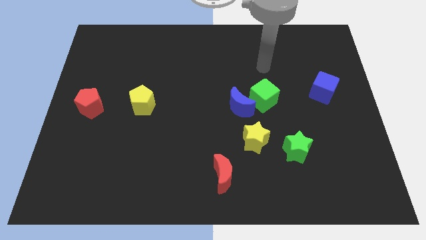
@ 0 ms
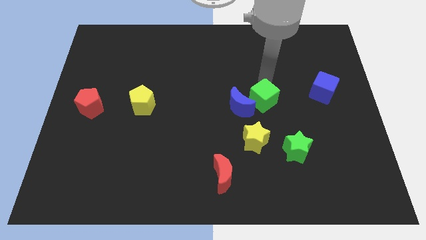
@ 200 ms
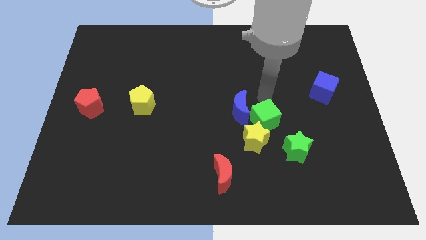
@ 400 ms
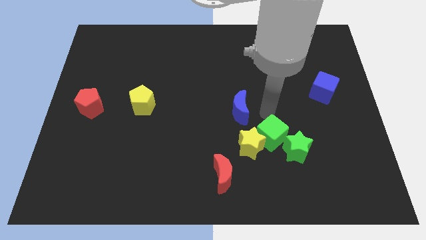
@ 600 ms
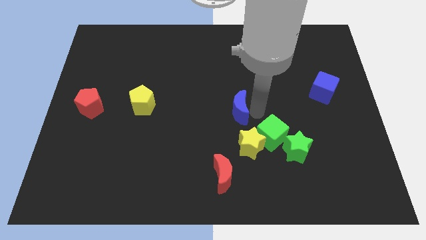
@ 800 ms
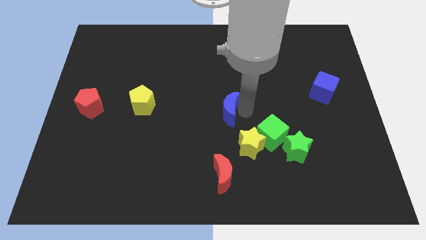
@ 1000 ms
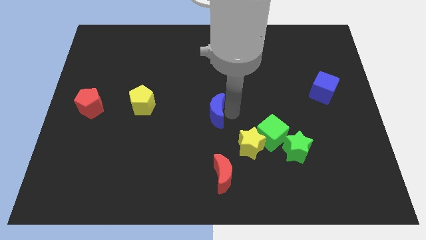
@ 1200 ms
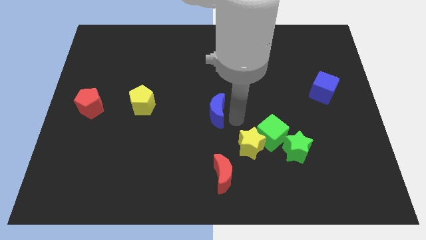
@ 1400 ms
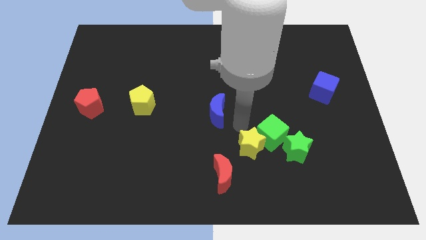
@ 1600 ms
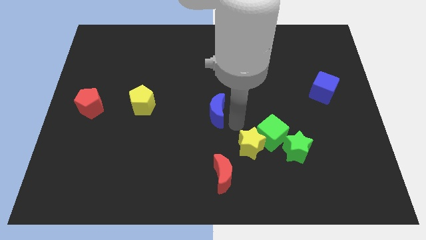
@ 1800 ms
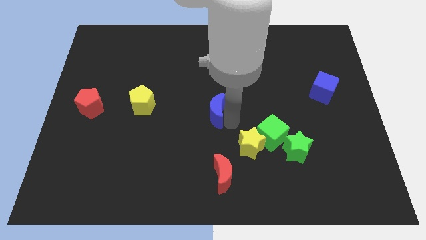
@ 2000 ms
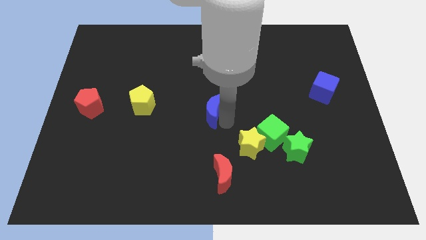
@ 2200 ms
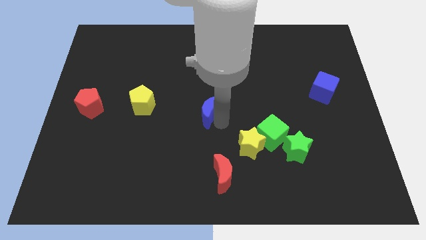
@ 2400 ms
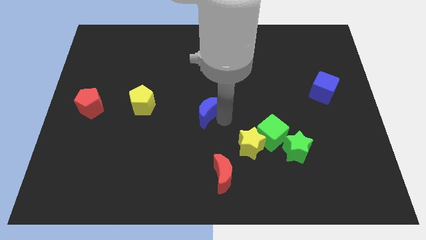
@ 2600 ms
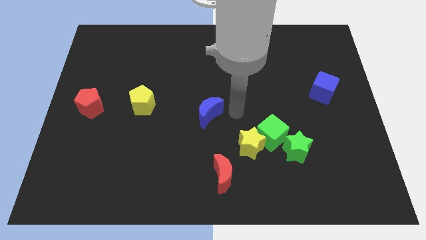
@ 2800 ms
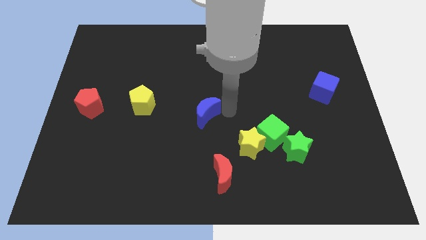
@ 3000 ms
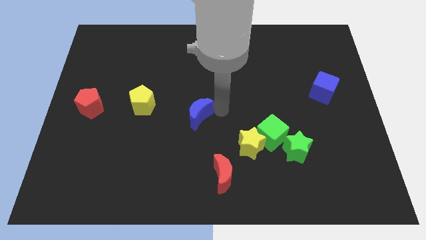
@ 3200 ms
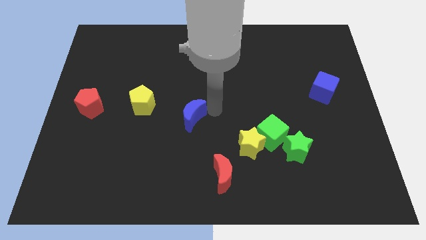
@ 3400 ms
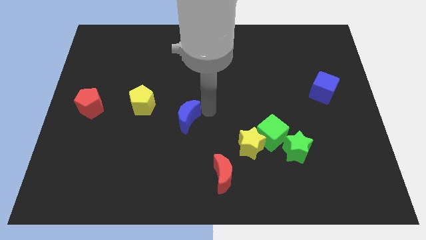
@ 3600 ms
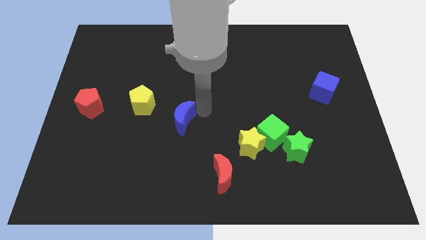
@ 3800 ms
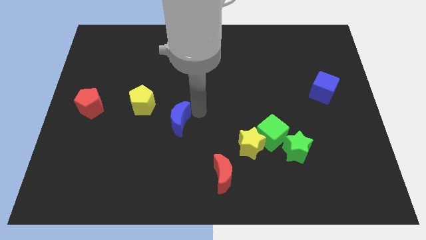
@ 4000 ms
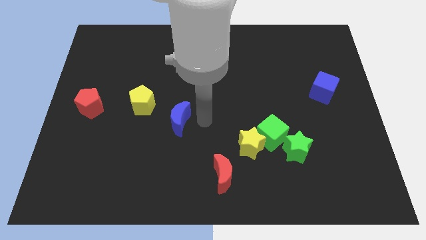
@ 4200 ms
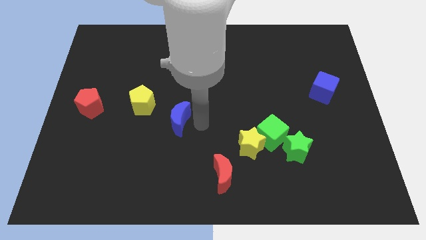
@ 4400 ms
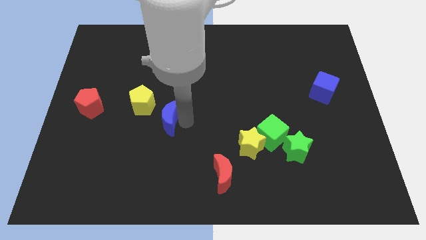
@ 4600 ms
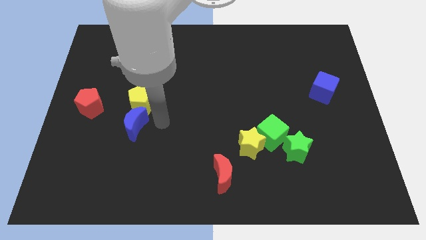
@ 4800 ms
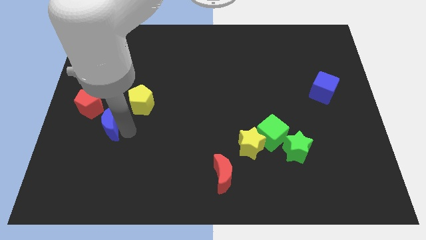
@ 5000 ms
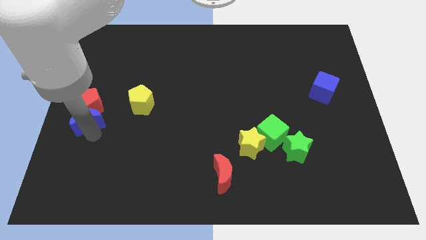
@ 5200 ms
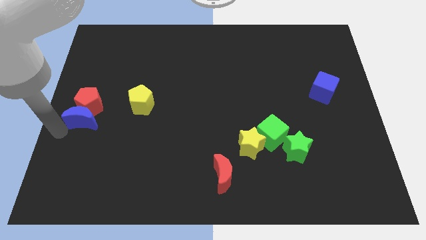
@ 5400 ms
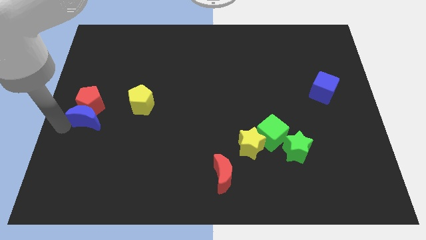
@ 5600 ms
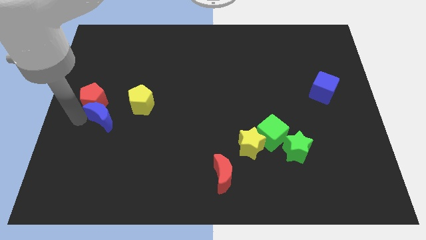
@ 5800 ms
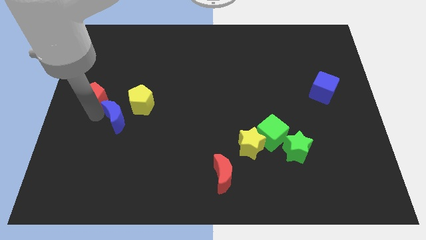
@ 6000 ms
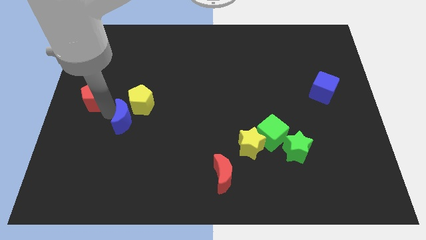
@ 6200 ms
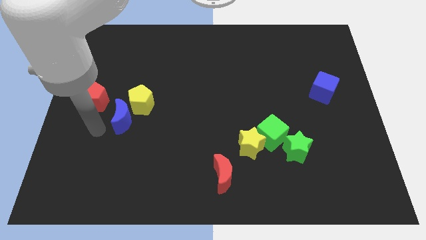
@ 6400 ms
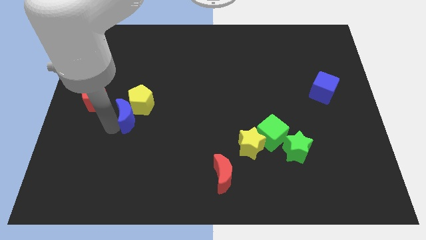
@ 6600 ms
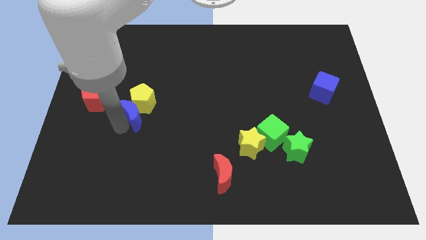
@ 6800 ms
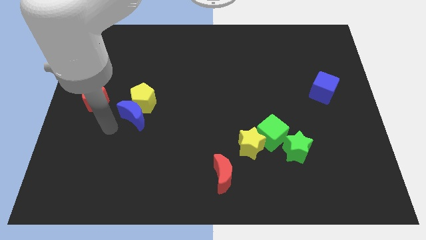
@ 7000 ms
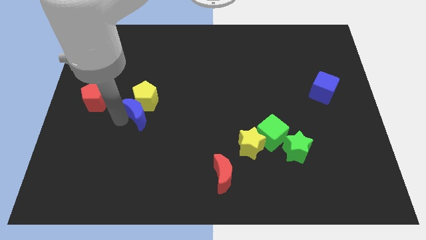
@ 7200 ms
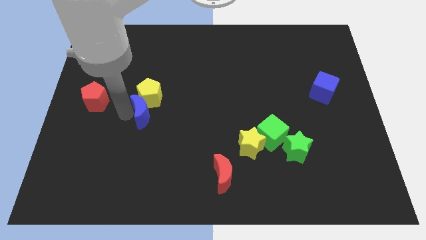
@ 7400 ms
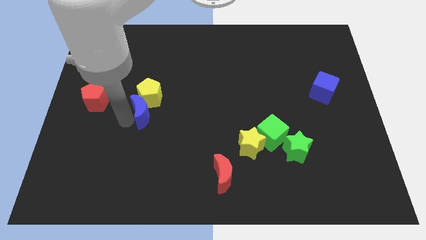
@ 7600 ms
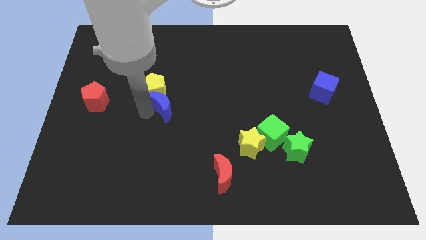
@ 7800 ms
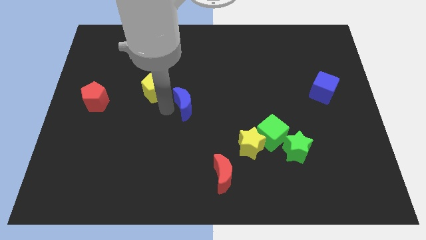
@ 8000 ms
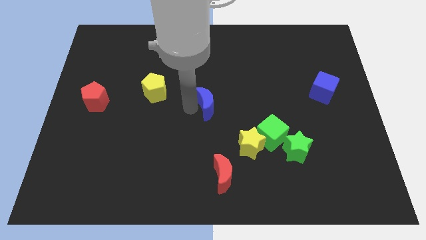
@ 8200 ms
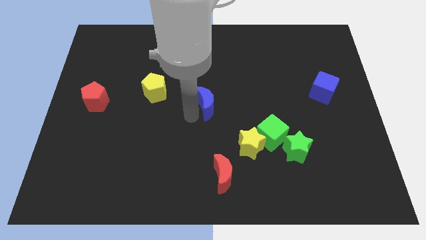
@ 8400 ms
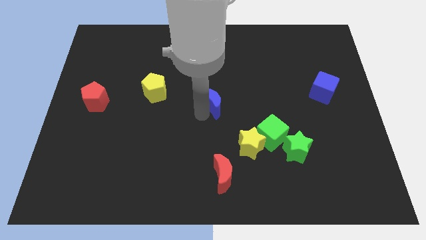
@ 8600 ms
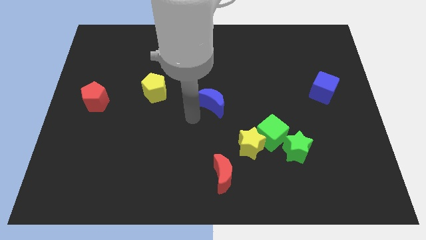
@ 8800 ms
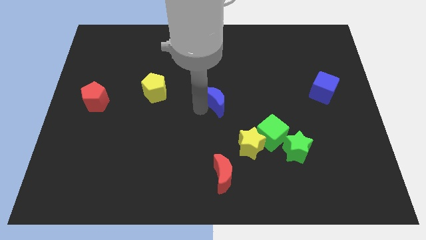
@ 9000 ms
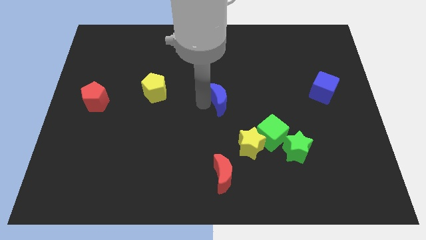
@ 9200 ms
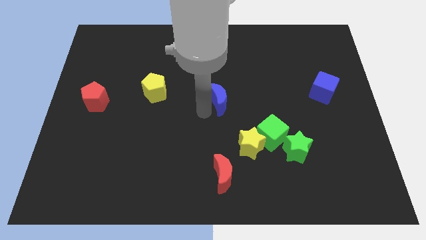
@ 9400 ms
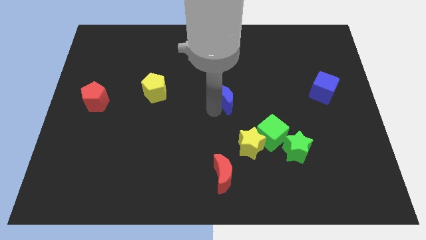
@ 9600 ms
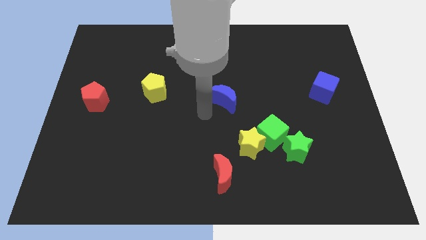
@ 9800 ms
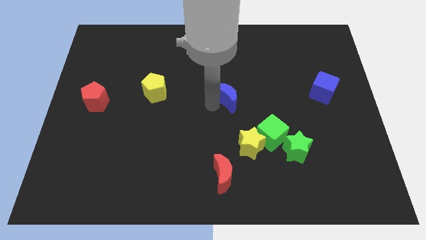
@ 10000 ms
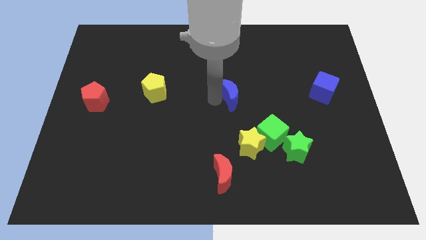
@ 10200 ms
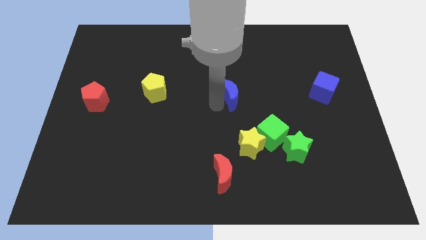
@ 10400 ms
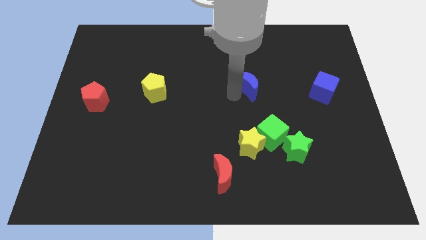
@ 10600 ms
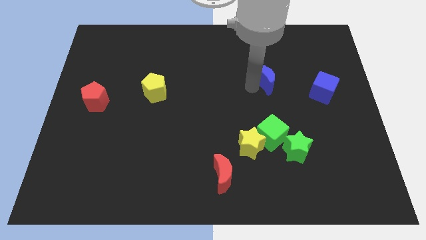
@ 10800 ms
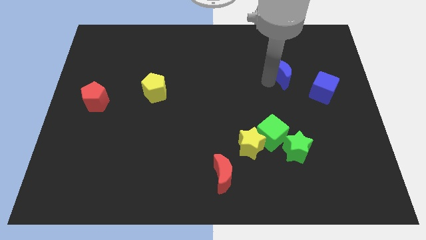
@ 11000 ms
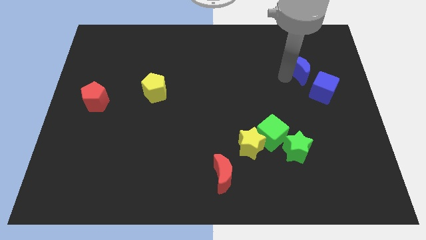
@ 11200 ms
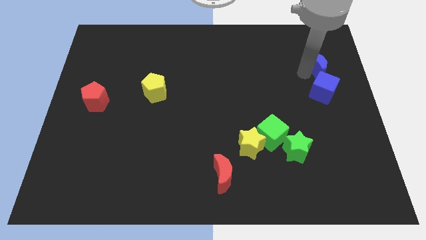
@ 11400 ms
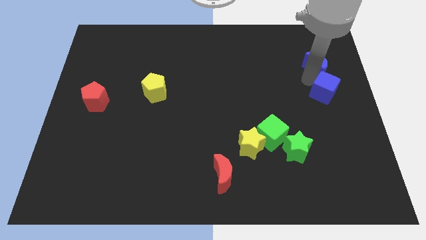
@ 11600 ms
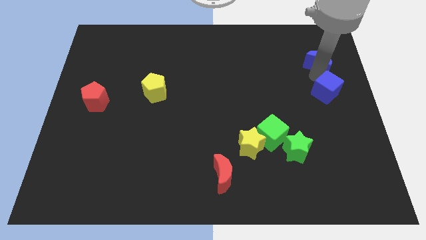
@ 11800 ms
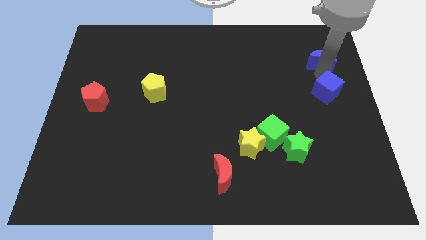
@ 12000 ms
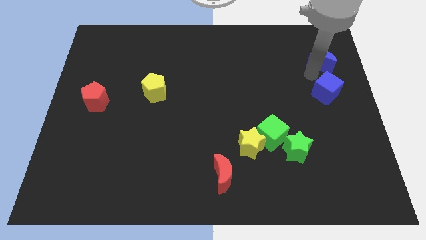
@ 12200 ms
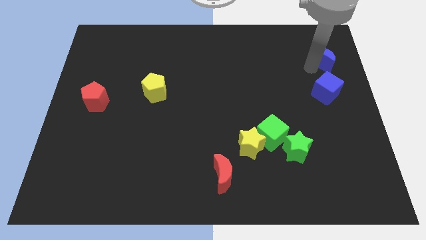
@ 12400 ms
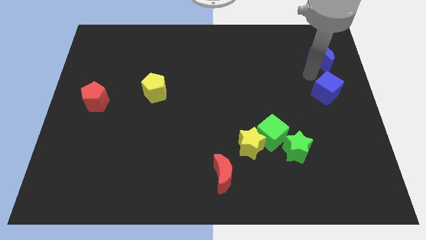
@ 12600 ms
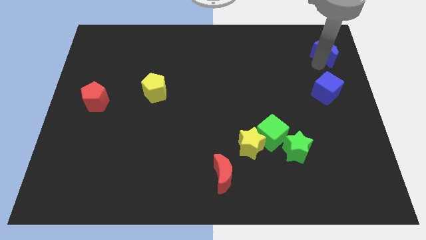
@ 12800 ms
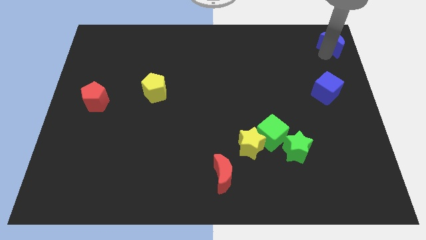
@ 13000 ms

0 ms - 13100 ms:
move the blue moon to the top right corner

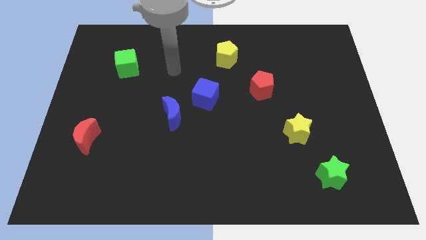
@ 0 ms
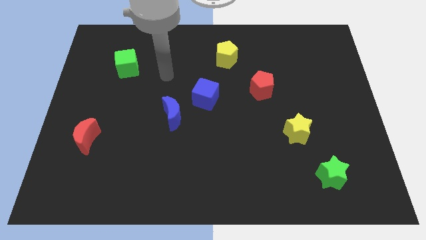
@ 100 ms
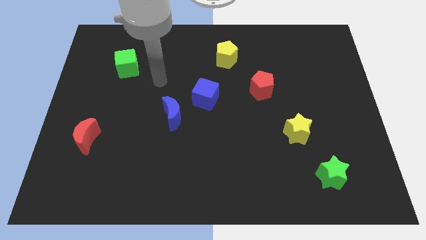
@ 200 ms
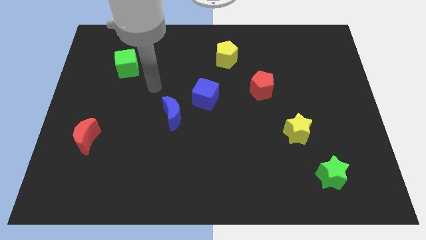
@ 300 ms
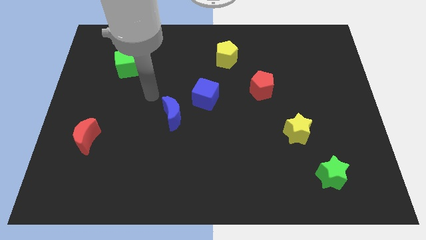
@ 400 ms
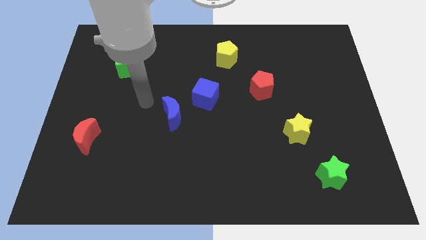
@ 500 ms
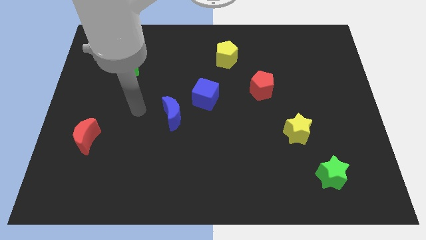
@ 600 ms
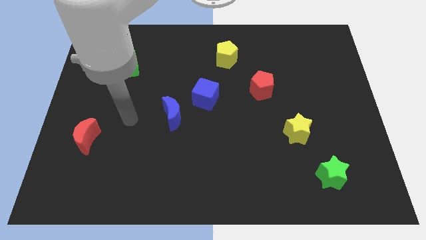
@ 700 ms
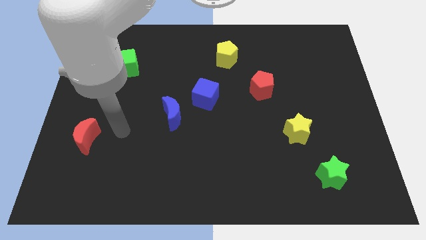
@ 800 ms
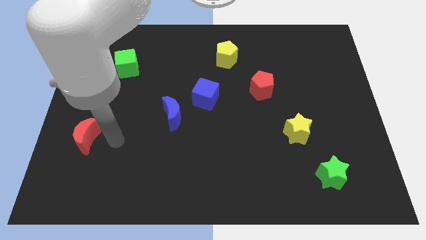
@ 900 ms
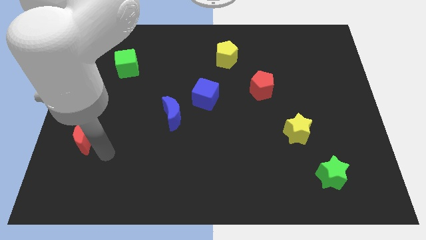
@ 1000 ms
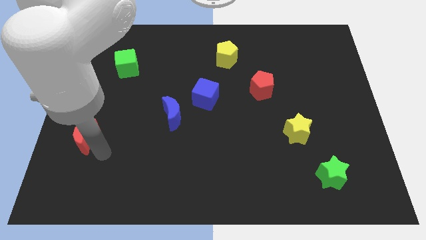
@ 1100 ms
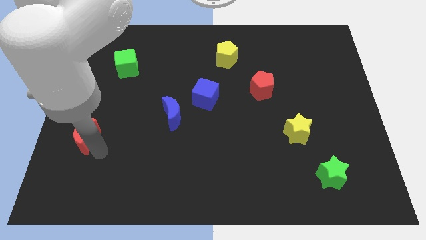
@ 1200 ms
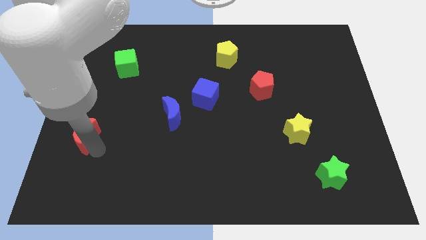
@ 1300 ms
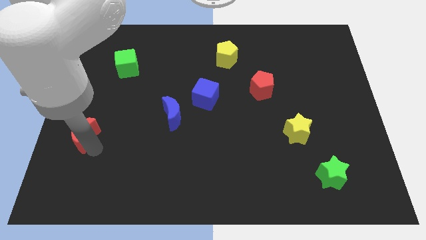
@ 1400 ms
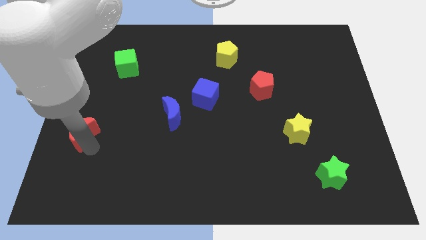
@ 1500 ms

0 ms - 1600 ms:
slide the red moon to the center left
